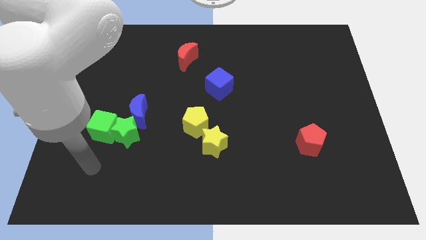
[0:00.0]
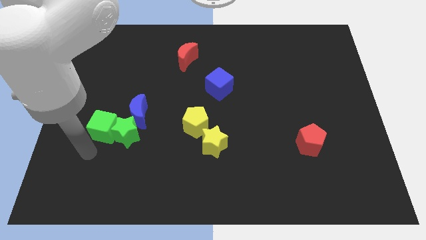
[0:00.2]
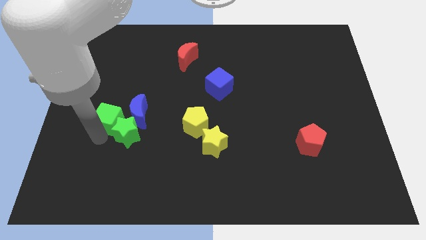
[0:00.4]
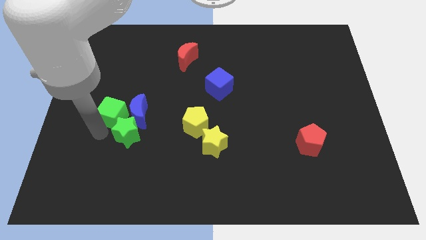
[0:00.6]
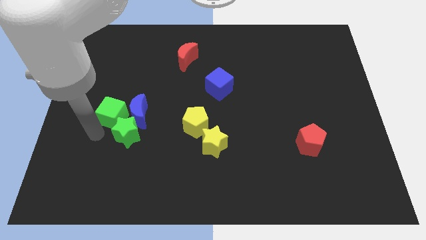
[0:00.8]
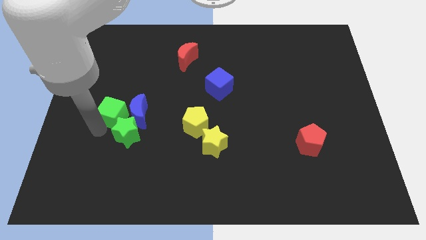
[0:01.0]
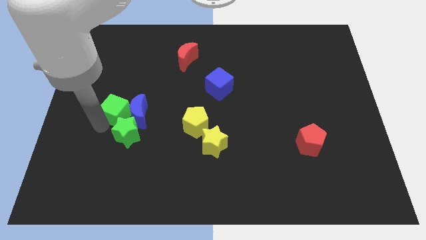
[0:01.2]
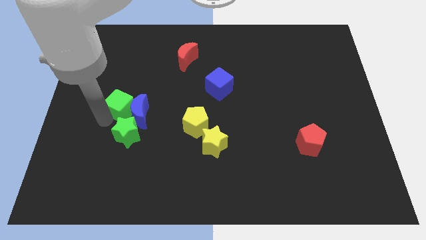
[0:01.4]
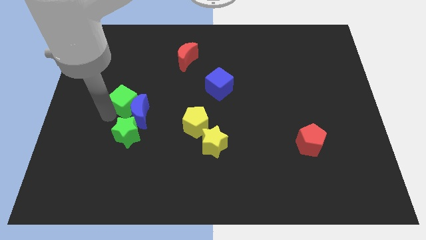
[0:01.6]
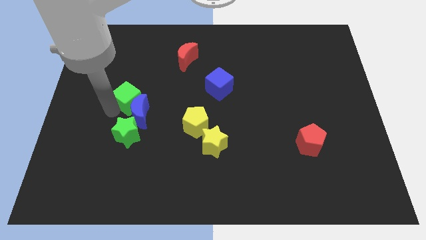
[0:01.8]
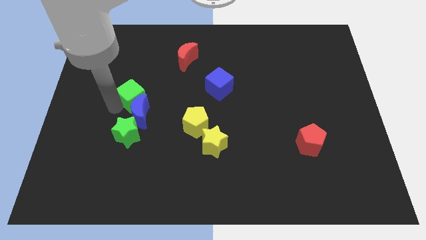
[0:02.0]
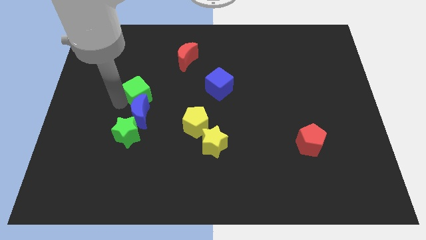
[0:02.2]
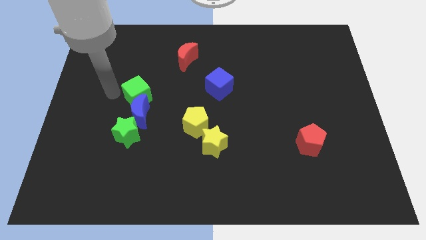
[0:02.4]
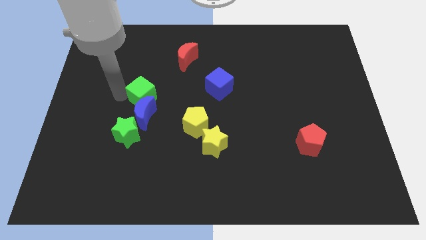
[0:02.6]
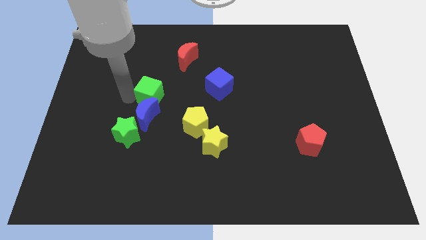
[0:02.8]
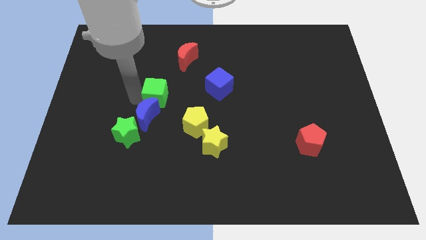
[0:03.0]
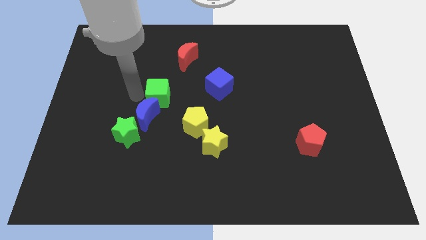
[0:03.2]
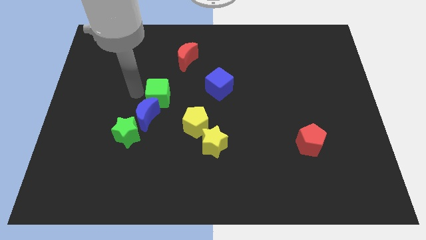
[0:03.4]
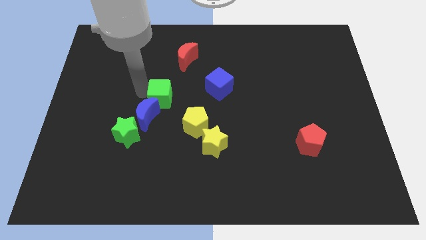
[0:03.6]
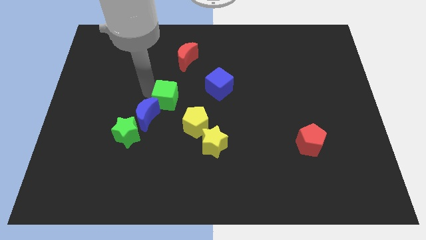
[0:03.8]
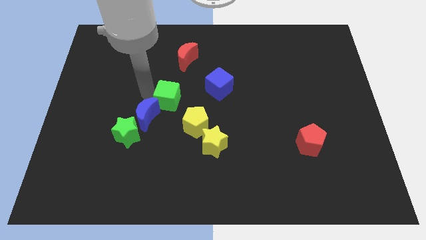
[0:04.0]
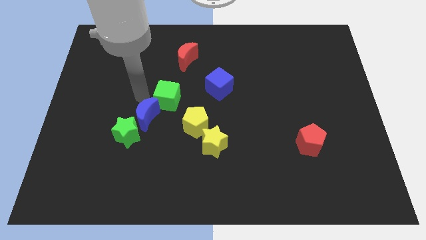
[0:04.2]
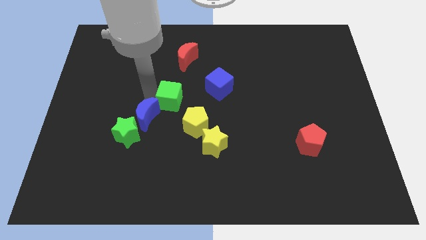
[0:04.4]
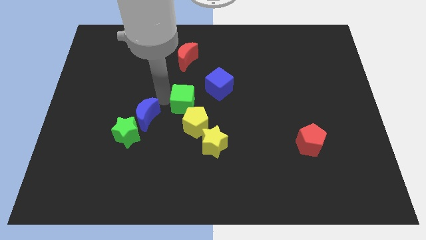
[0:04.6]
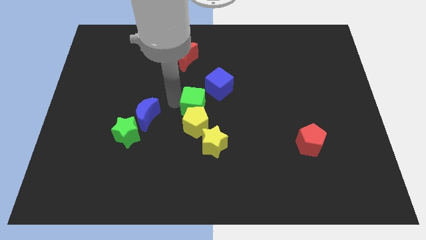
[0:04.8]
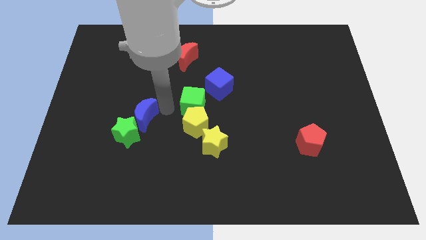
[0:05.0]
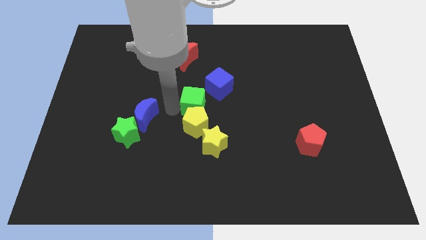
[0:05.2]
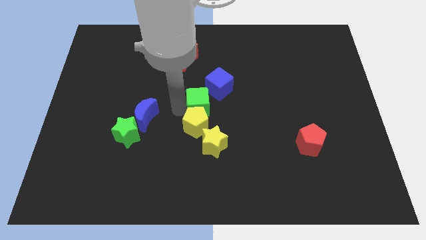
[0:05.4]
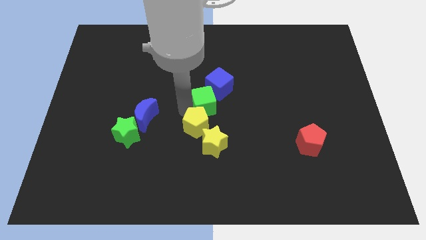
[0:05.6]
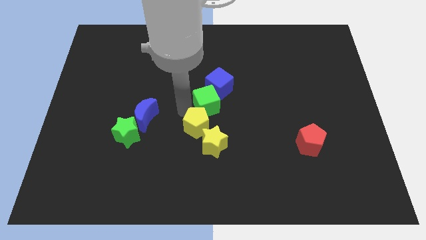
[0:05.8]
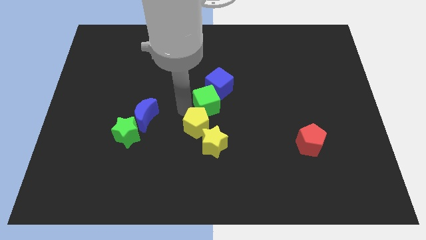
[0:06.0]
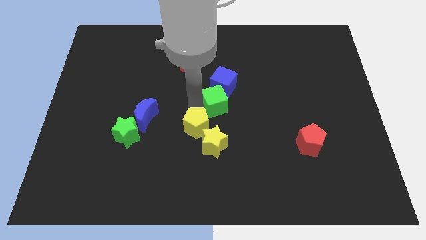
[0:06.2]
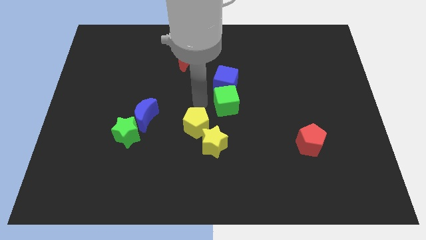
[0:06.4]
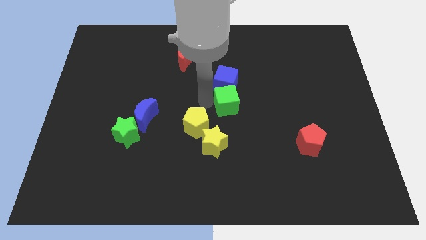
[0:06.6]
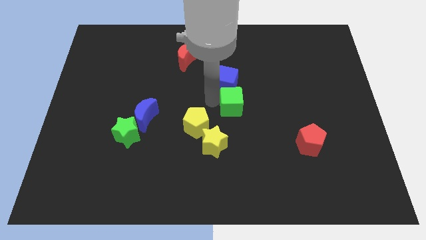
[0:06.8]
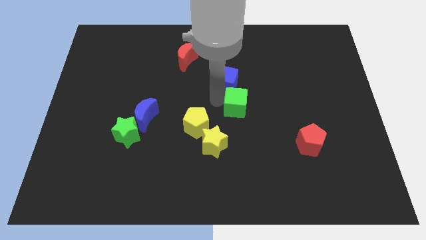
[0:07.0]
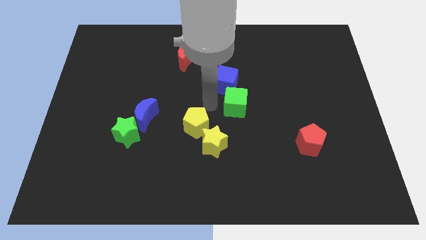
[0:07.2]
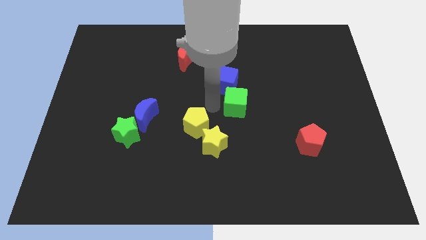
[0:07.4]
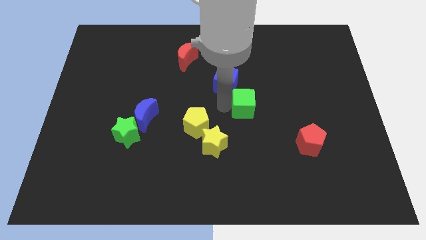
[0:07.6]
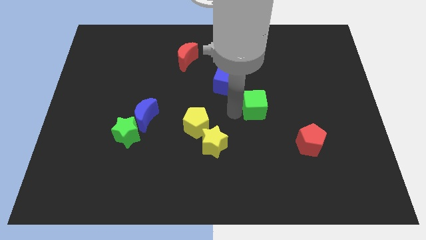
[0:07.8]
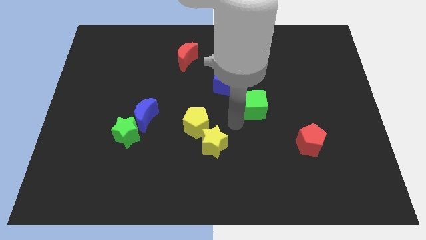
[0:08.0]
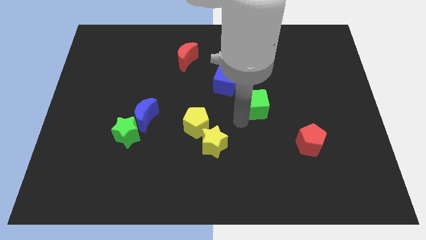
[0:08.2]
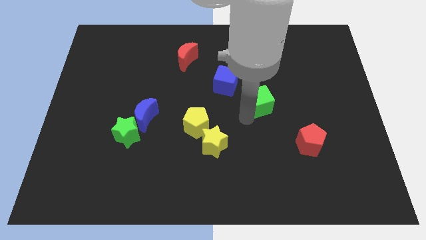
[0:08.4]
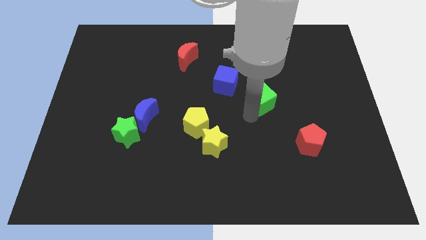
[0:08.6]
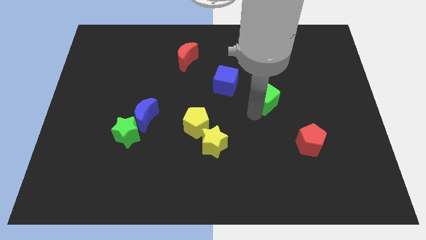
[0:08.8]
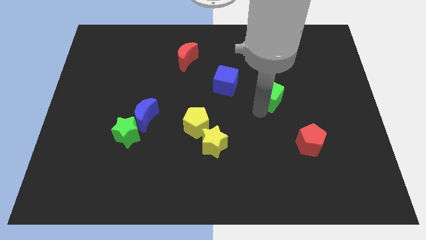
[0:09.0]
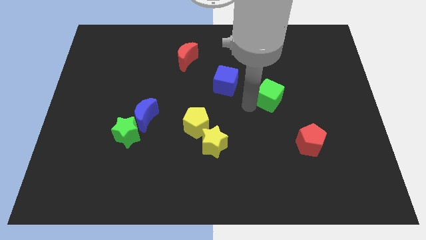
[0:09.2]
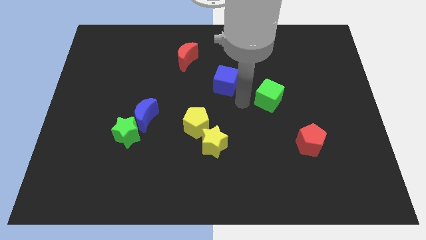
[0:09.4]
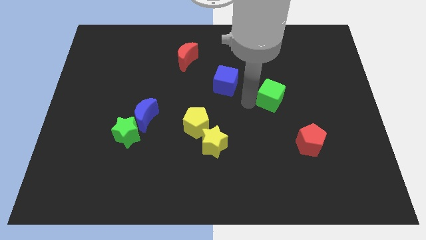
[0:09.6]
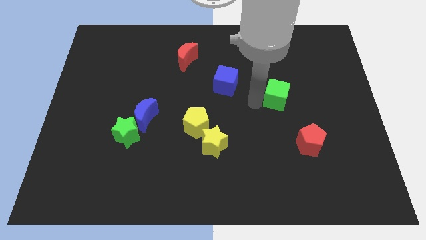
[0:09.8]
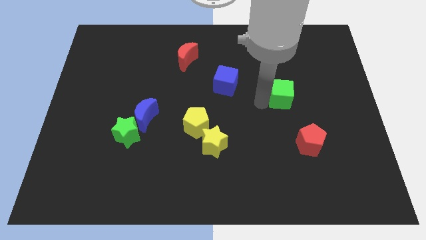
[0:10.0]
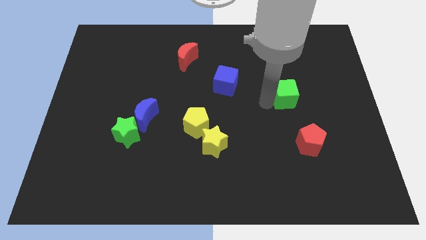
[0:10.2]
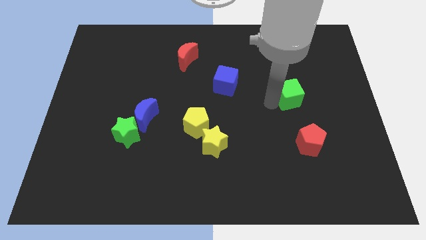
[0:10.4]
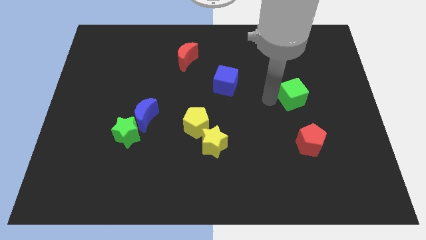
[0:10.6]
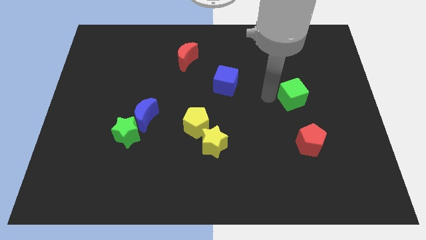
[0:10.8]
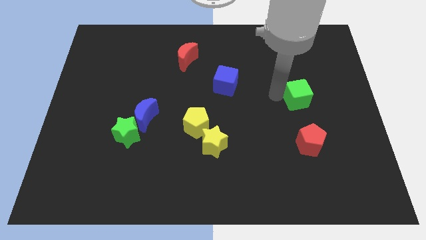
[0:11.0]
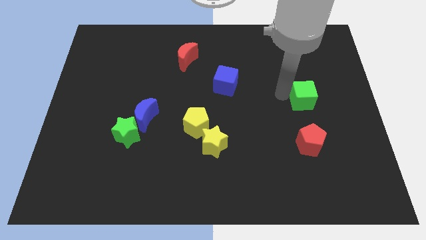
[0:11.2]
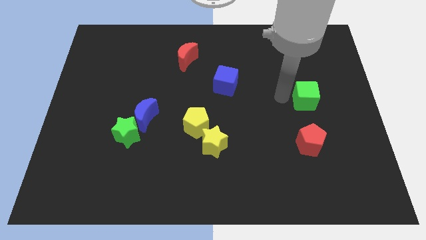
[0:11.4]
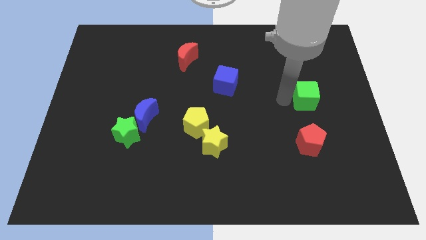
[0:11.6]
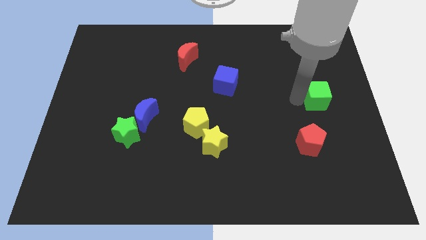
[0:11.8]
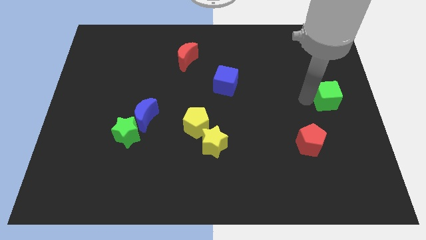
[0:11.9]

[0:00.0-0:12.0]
push the green cube to the center right

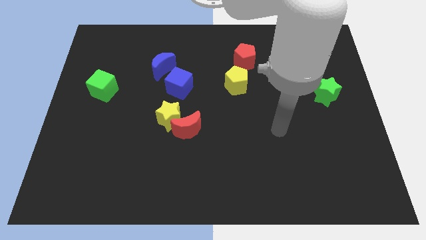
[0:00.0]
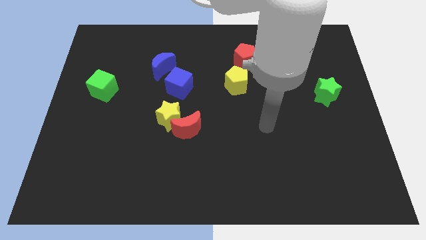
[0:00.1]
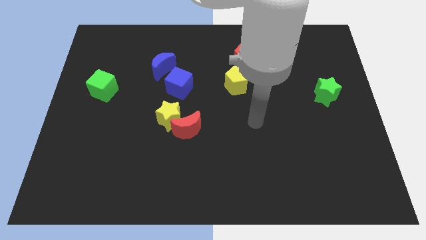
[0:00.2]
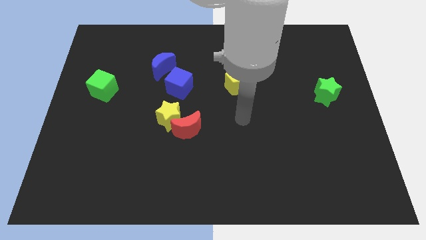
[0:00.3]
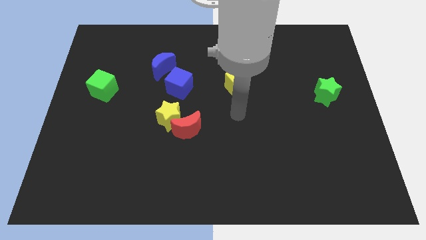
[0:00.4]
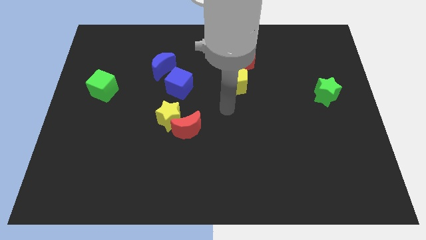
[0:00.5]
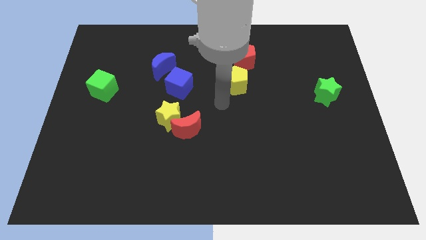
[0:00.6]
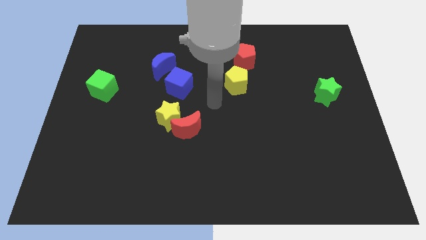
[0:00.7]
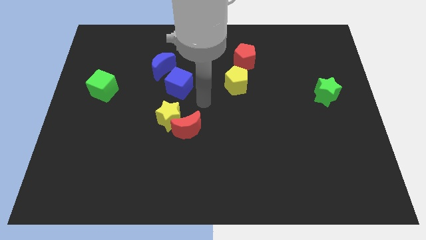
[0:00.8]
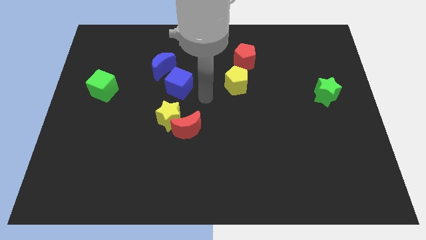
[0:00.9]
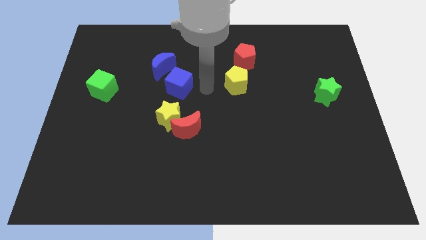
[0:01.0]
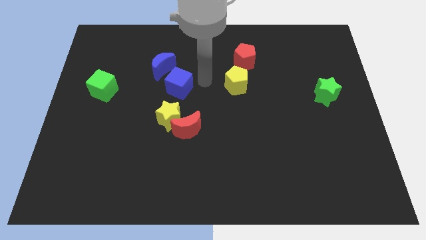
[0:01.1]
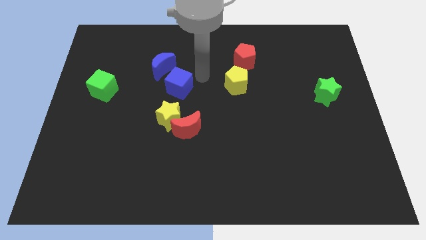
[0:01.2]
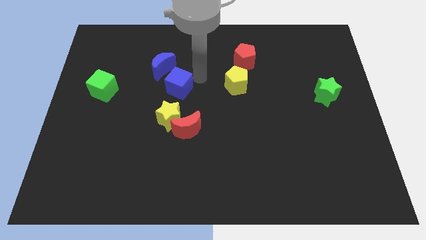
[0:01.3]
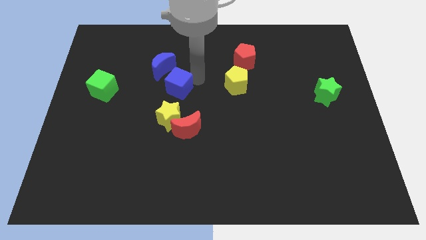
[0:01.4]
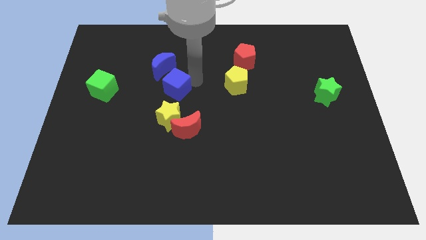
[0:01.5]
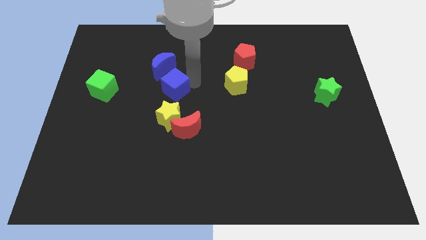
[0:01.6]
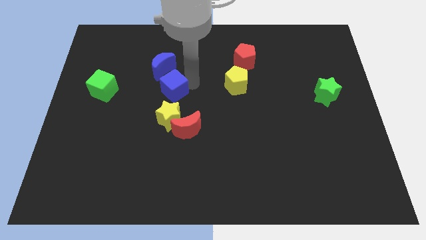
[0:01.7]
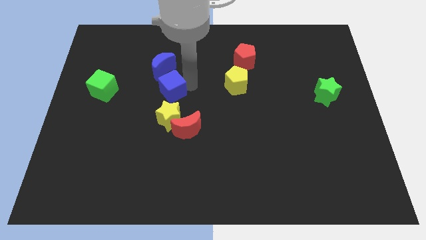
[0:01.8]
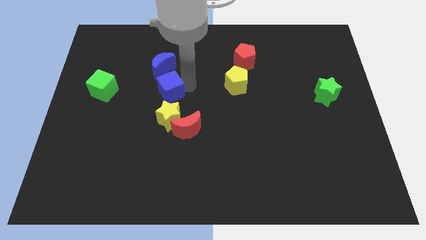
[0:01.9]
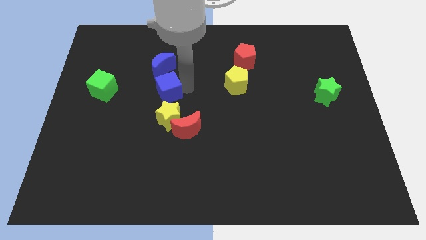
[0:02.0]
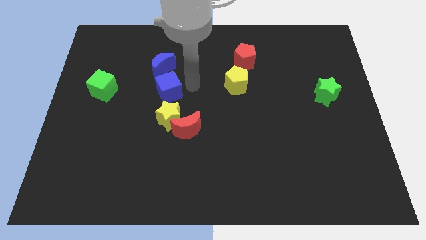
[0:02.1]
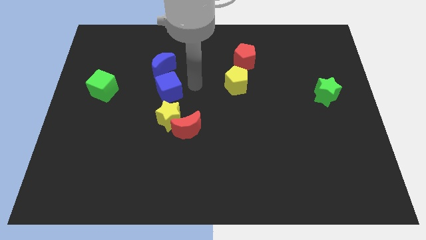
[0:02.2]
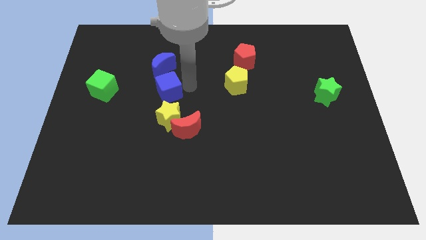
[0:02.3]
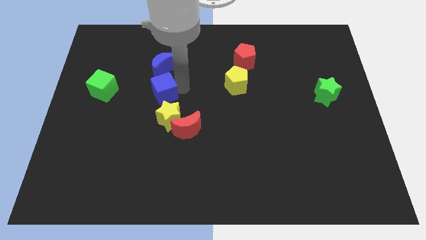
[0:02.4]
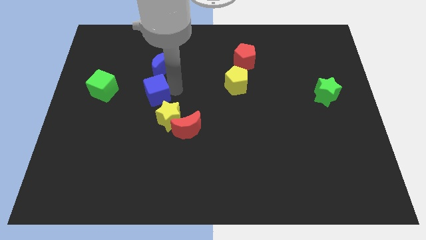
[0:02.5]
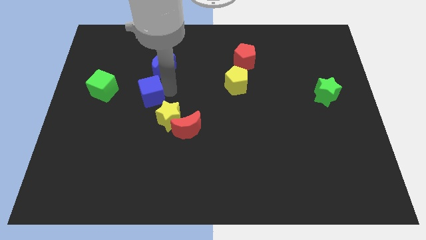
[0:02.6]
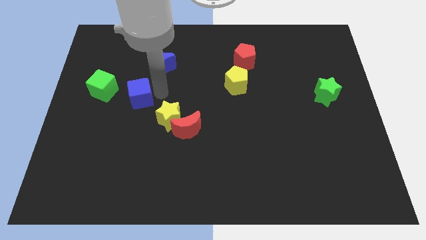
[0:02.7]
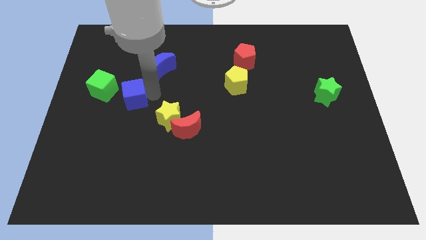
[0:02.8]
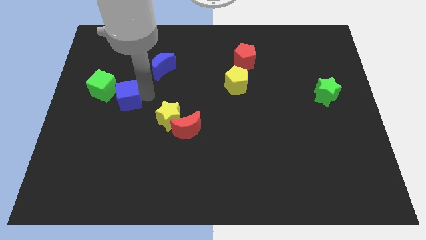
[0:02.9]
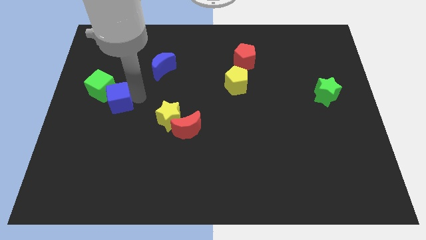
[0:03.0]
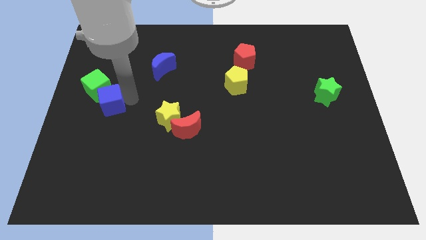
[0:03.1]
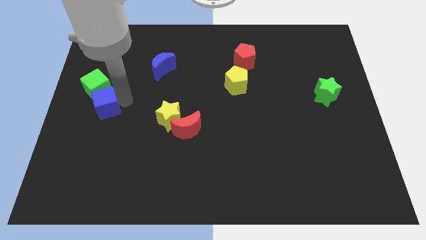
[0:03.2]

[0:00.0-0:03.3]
move the blue cube to the left side of the board
